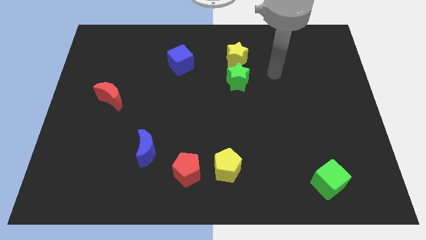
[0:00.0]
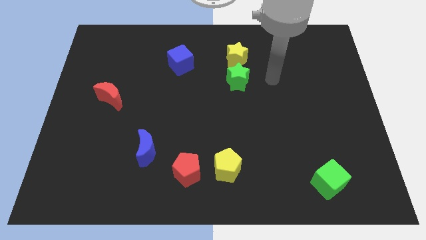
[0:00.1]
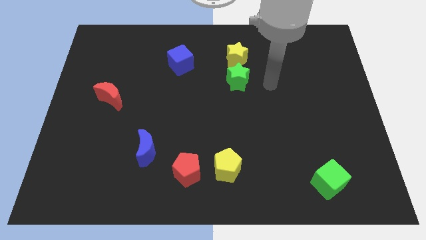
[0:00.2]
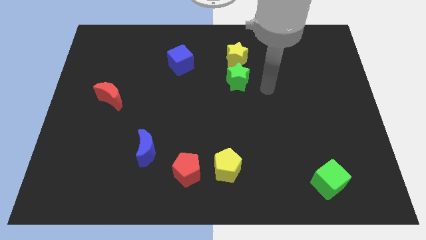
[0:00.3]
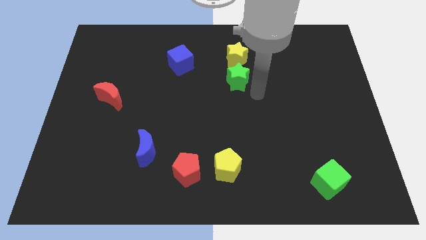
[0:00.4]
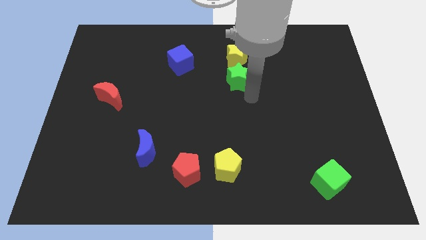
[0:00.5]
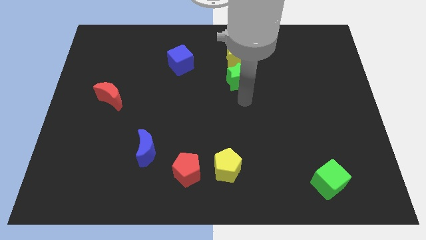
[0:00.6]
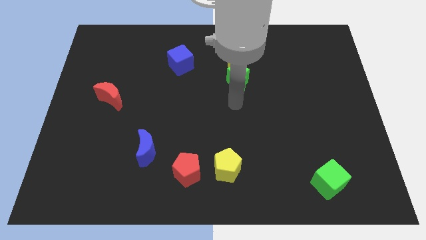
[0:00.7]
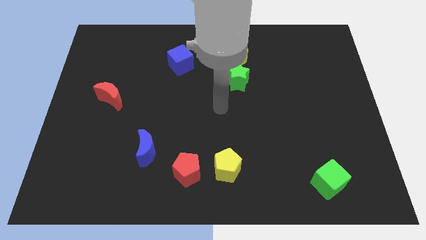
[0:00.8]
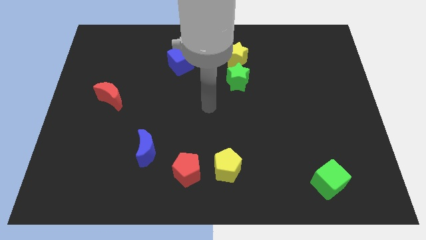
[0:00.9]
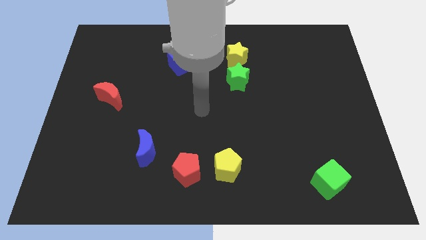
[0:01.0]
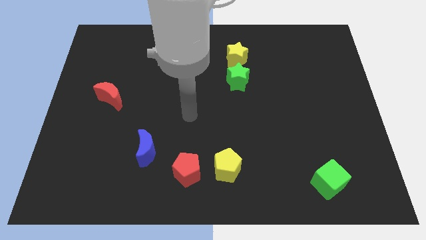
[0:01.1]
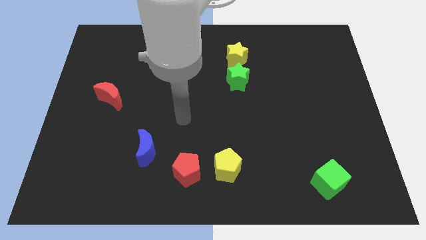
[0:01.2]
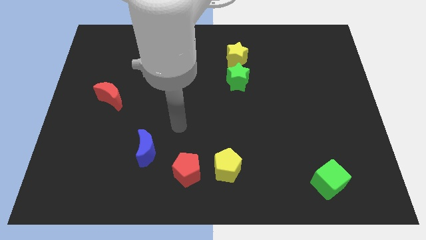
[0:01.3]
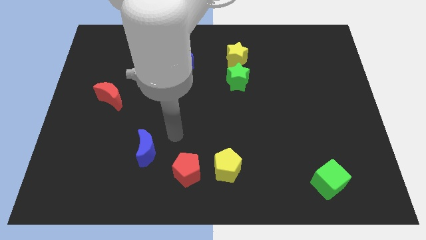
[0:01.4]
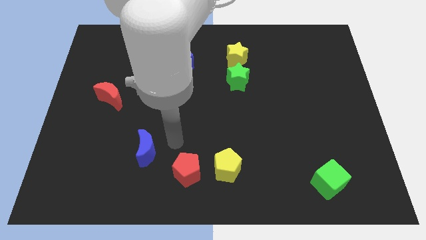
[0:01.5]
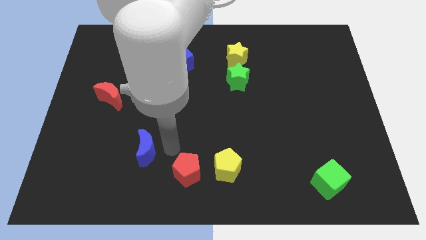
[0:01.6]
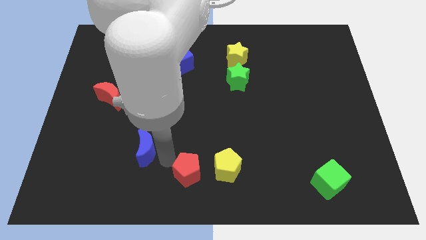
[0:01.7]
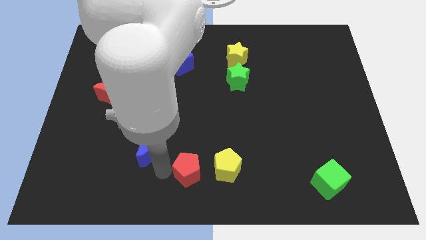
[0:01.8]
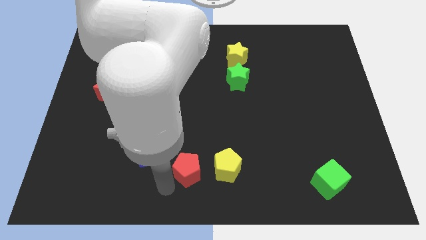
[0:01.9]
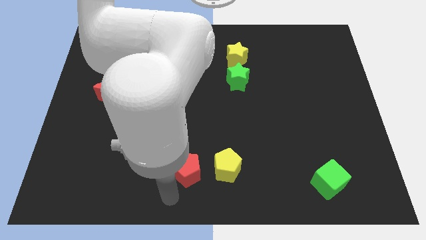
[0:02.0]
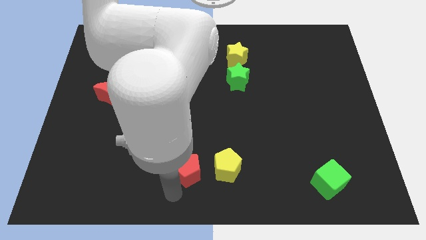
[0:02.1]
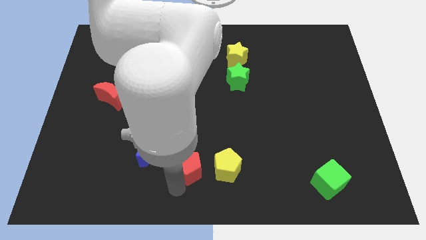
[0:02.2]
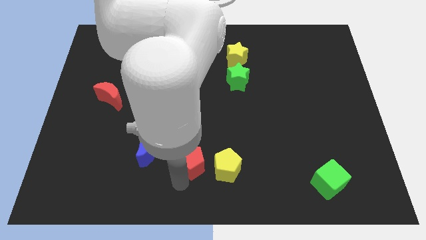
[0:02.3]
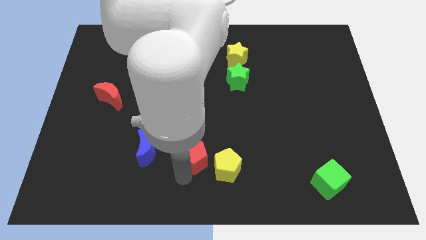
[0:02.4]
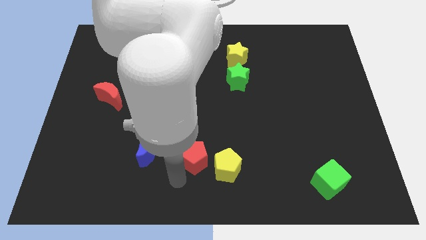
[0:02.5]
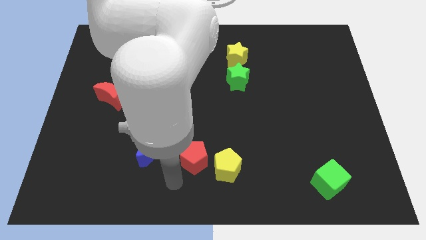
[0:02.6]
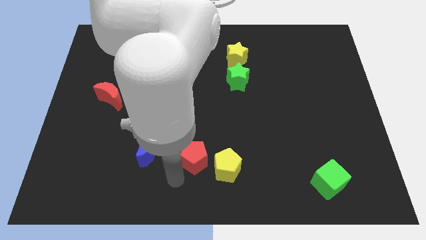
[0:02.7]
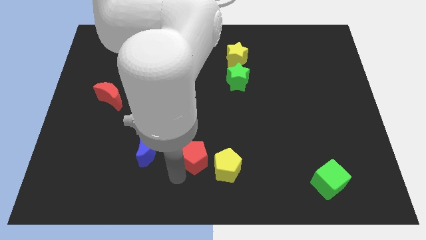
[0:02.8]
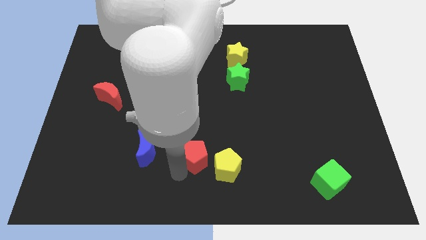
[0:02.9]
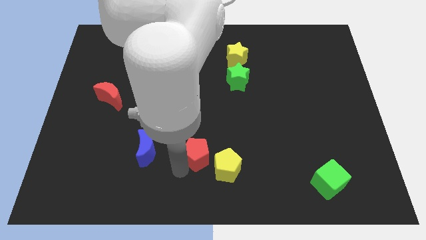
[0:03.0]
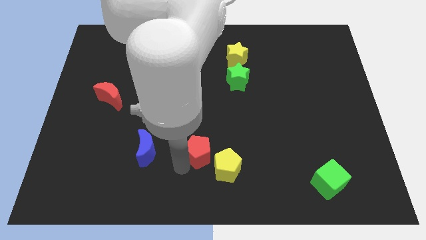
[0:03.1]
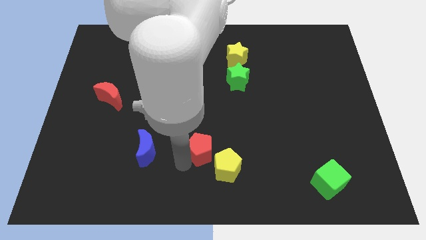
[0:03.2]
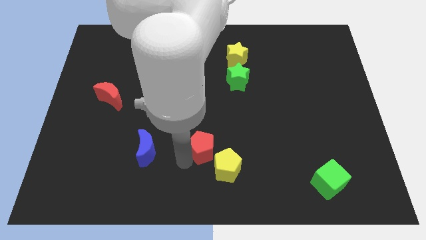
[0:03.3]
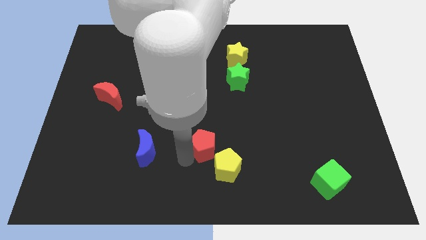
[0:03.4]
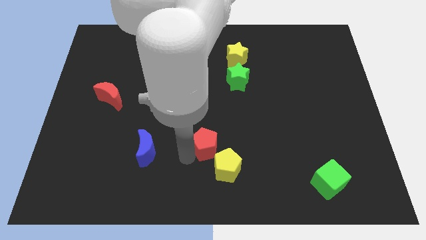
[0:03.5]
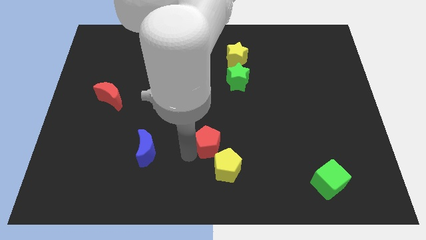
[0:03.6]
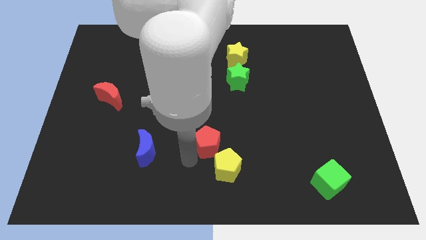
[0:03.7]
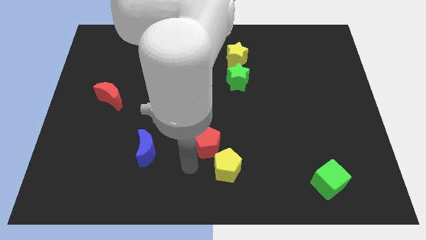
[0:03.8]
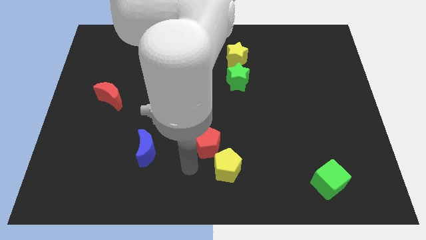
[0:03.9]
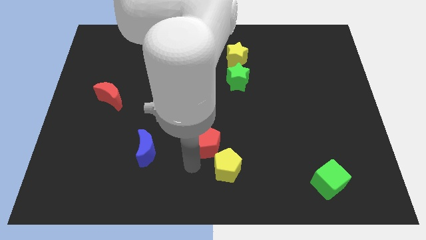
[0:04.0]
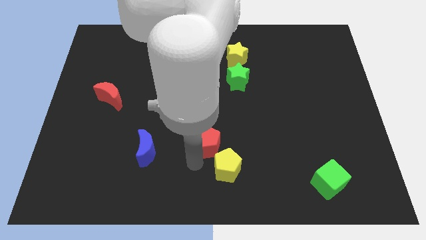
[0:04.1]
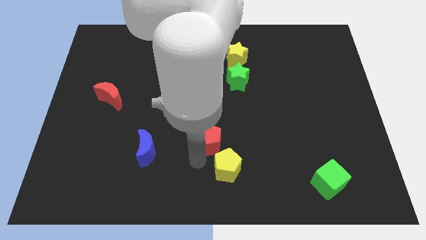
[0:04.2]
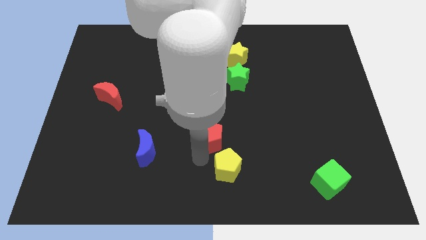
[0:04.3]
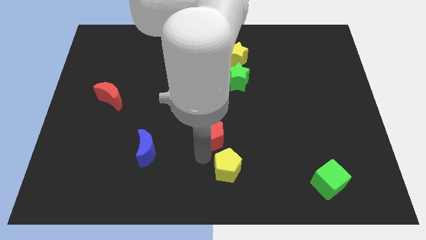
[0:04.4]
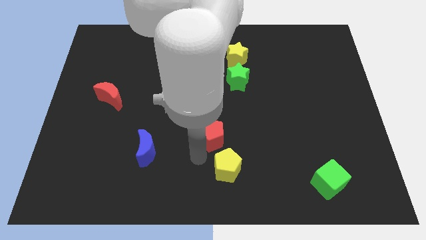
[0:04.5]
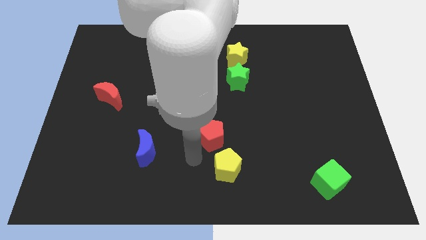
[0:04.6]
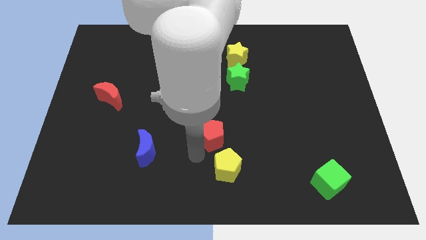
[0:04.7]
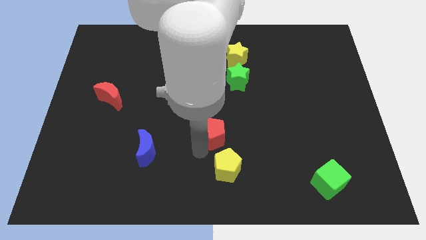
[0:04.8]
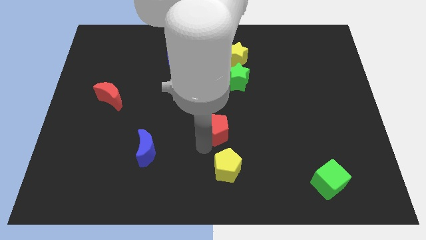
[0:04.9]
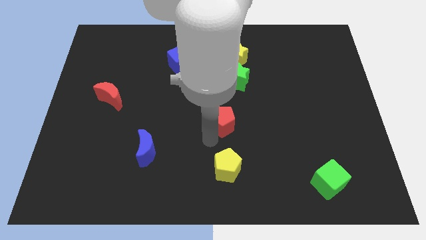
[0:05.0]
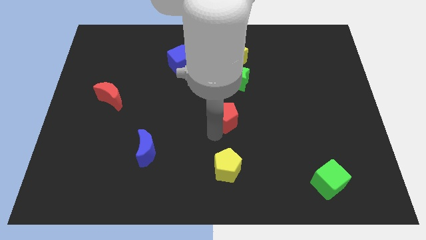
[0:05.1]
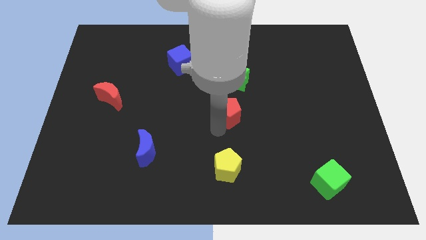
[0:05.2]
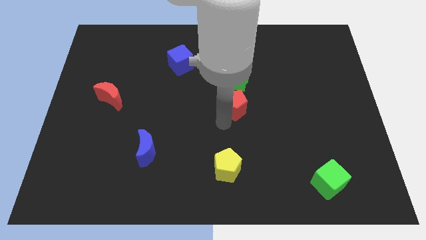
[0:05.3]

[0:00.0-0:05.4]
push the red pentagon below the yellow star

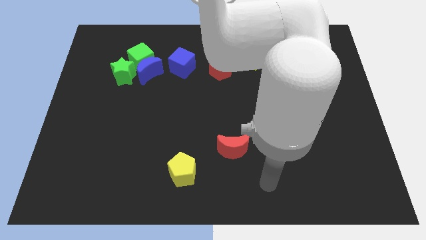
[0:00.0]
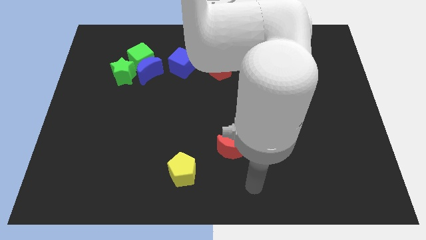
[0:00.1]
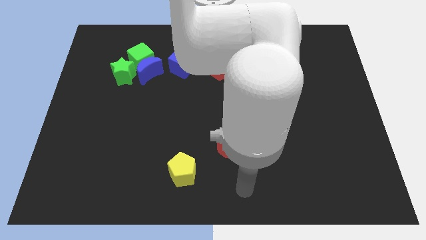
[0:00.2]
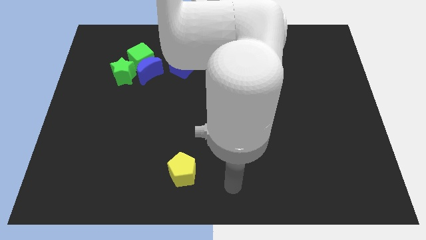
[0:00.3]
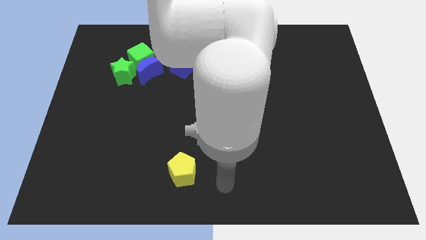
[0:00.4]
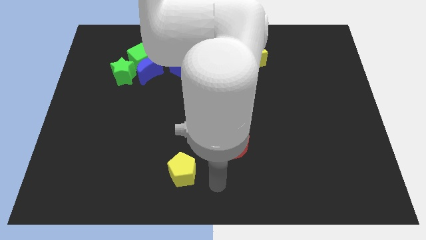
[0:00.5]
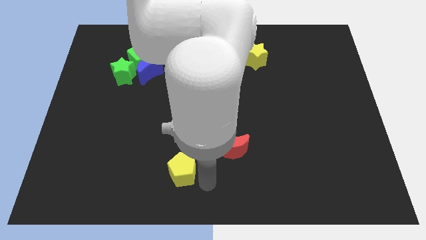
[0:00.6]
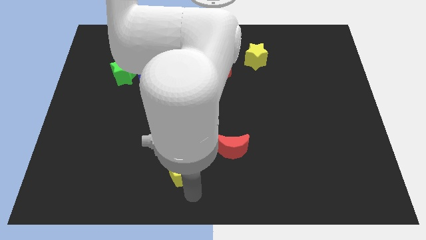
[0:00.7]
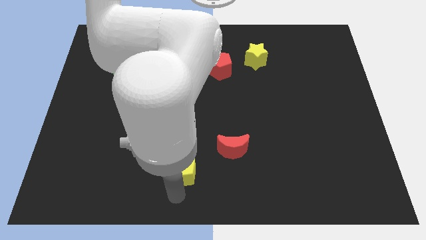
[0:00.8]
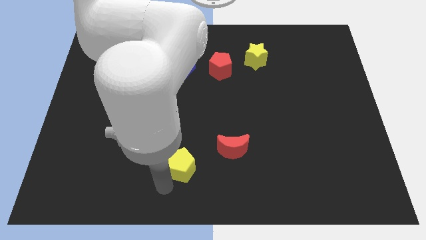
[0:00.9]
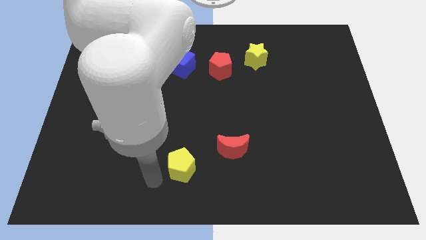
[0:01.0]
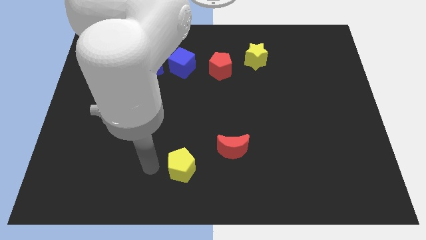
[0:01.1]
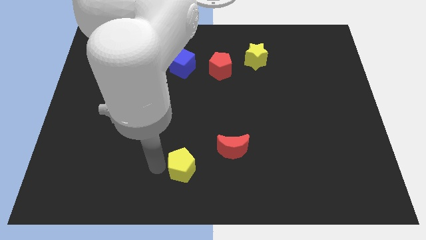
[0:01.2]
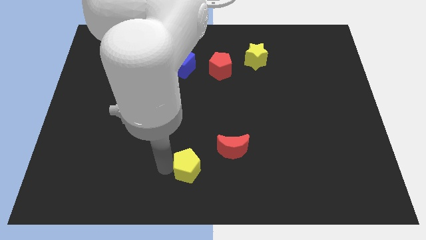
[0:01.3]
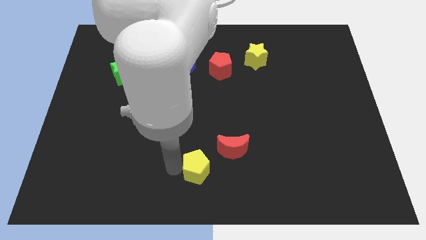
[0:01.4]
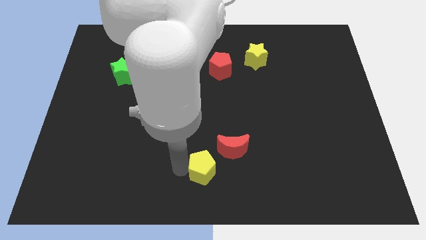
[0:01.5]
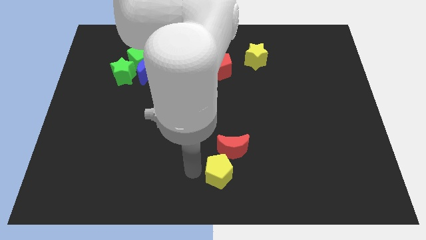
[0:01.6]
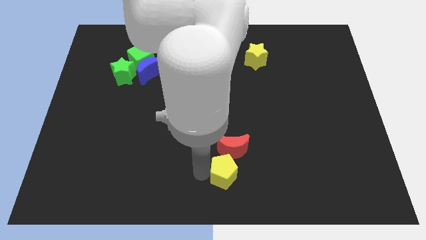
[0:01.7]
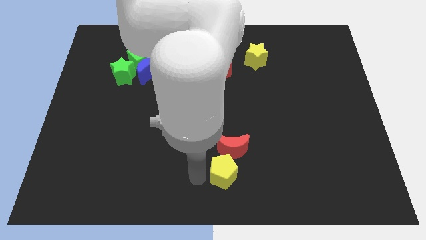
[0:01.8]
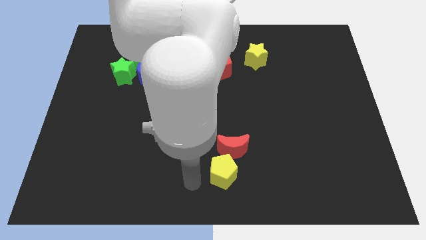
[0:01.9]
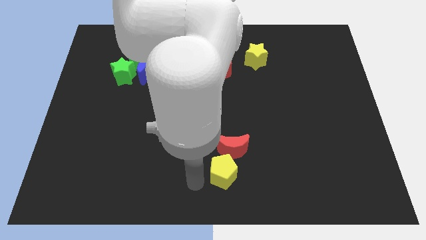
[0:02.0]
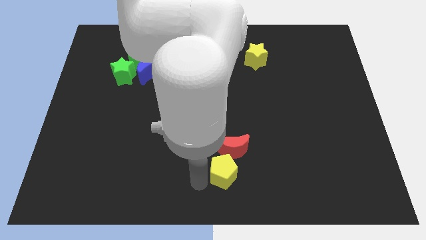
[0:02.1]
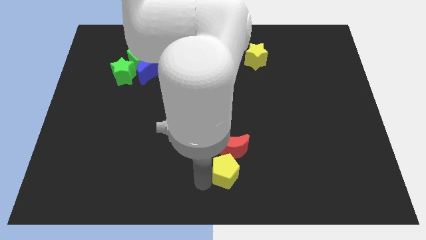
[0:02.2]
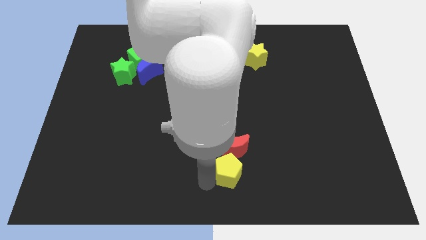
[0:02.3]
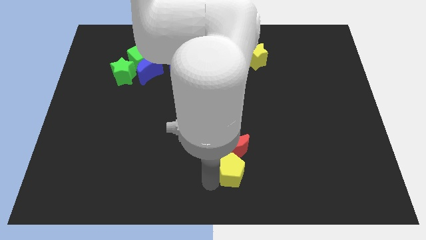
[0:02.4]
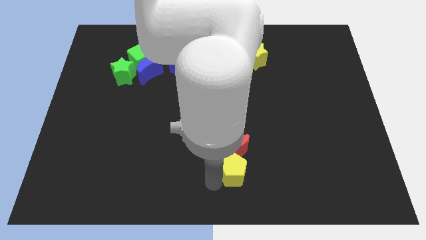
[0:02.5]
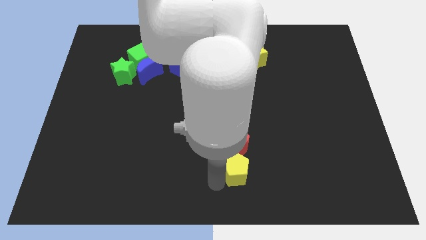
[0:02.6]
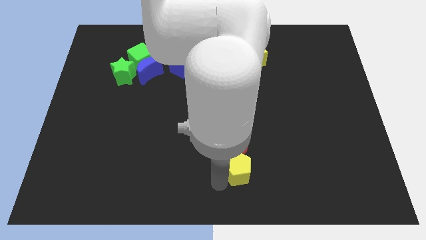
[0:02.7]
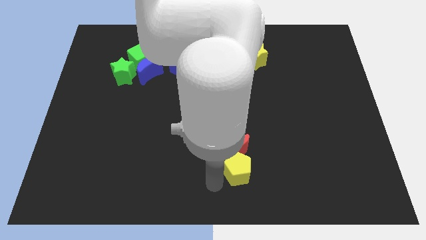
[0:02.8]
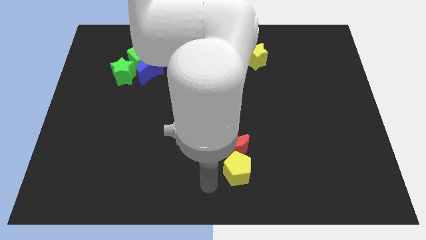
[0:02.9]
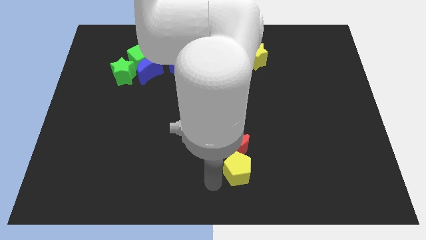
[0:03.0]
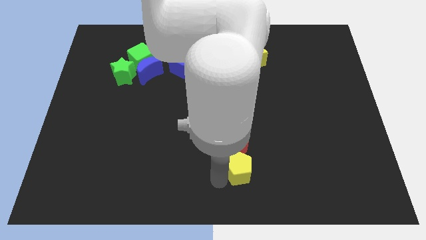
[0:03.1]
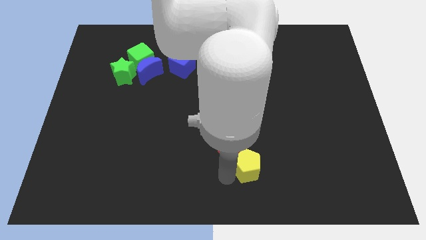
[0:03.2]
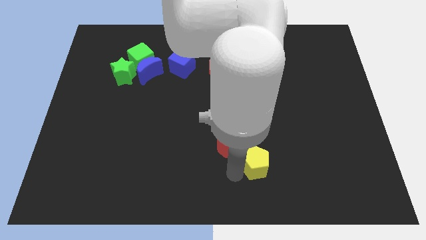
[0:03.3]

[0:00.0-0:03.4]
push the yellow pentagon to the right side of the red moon
